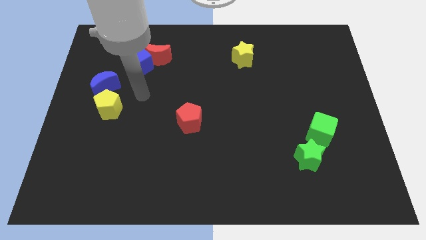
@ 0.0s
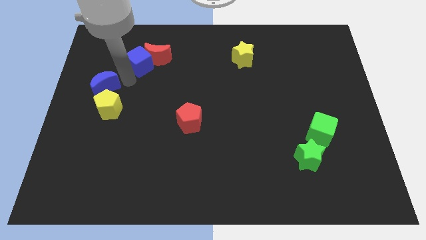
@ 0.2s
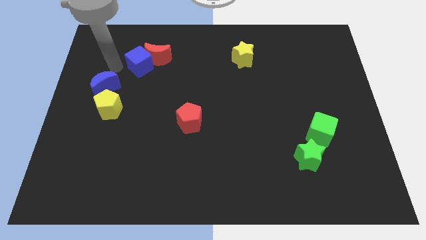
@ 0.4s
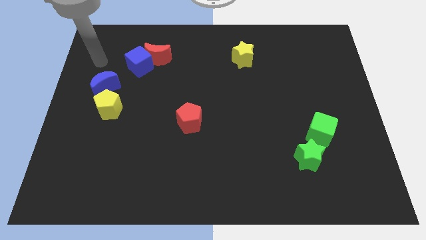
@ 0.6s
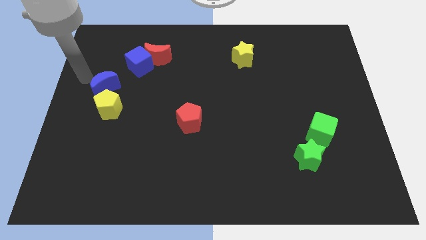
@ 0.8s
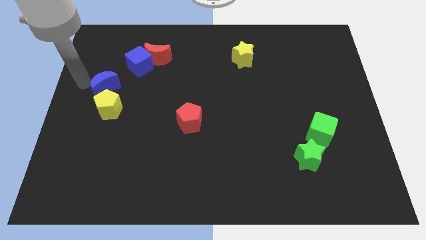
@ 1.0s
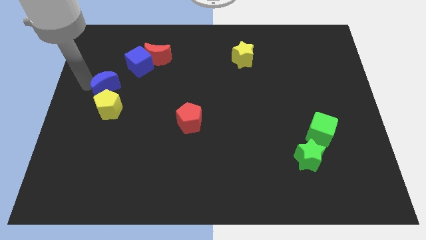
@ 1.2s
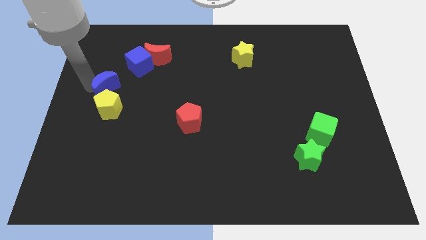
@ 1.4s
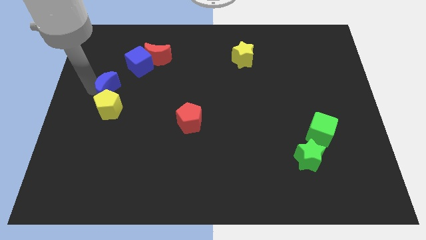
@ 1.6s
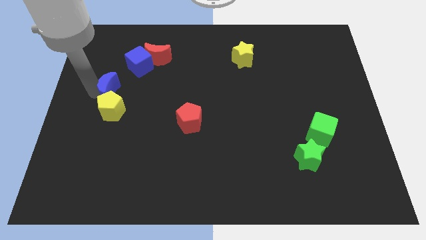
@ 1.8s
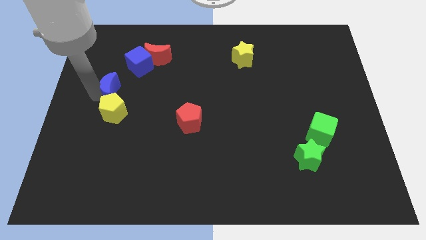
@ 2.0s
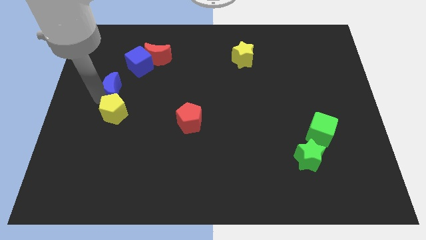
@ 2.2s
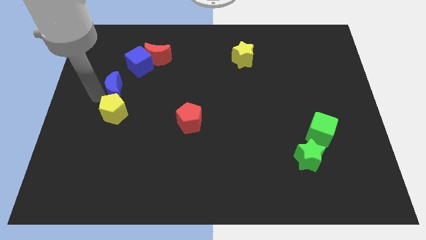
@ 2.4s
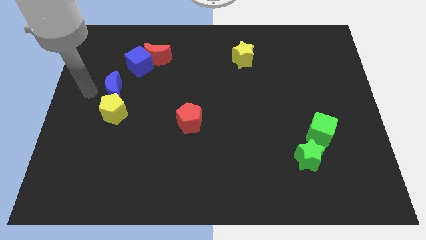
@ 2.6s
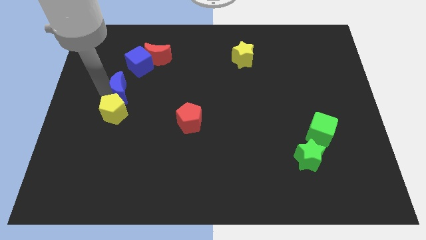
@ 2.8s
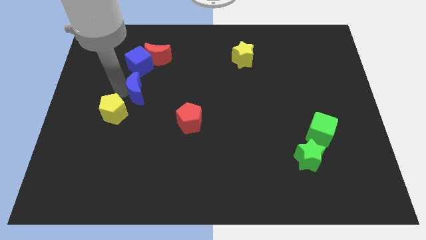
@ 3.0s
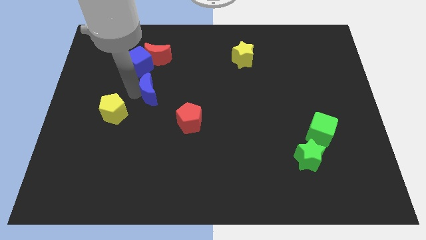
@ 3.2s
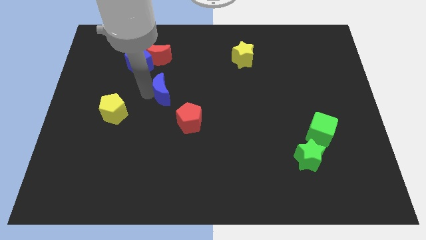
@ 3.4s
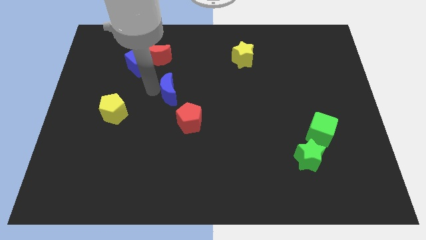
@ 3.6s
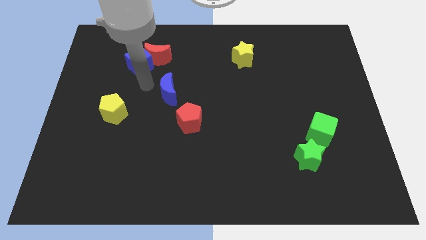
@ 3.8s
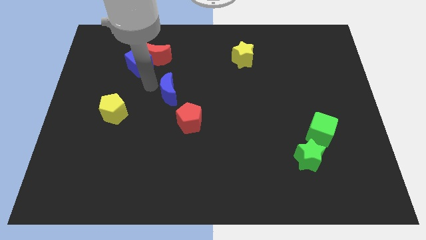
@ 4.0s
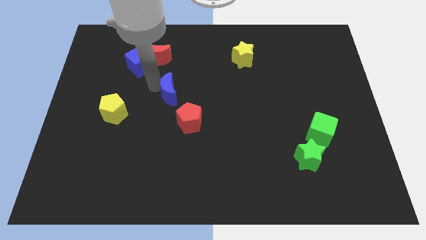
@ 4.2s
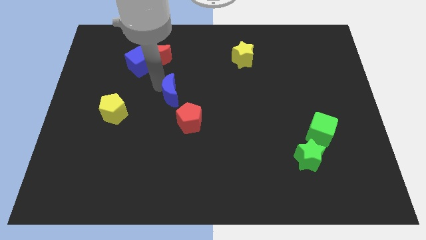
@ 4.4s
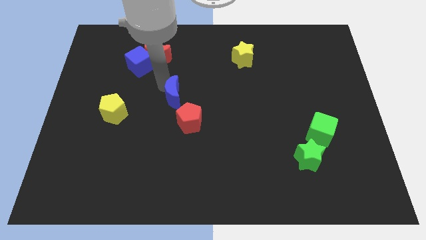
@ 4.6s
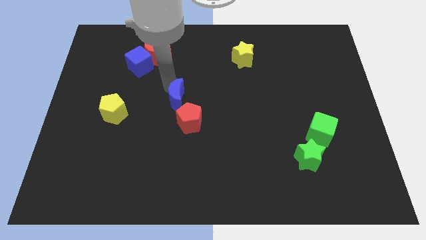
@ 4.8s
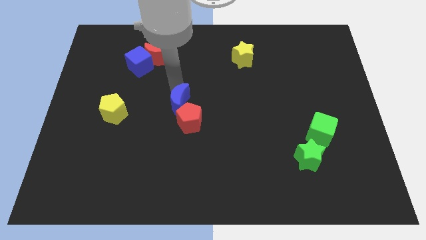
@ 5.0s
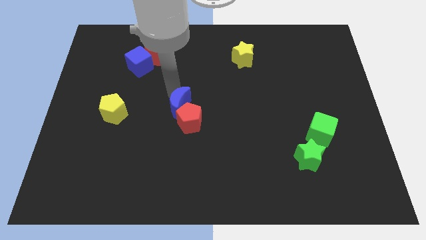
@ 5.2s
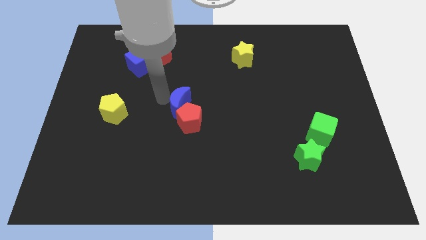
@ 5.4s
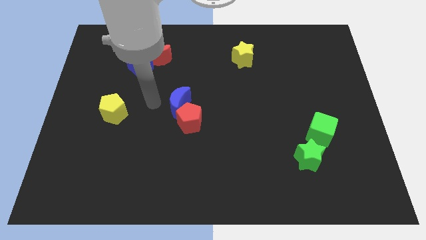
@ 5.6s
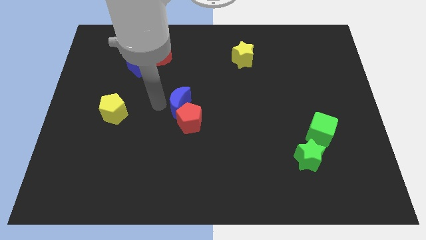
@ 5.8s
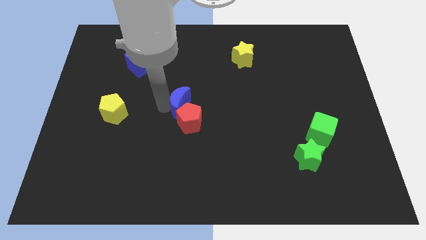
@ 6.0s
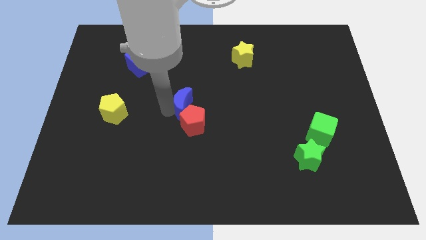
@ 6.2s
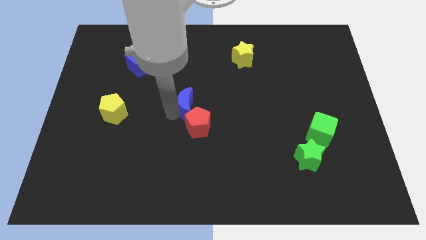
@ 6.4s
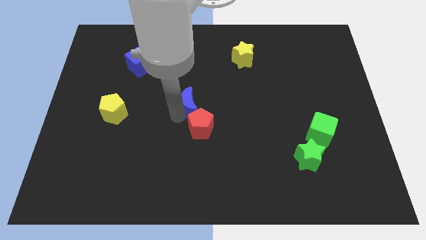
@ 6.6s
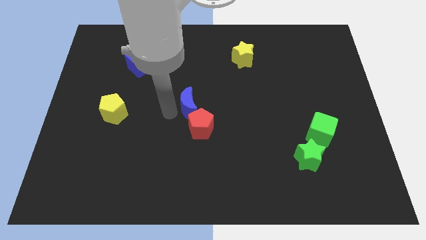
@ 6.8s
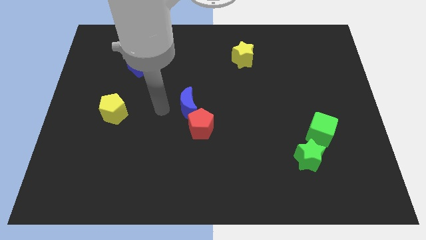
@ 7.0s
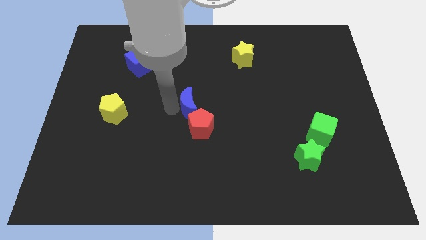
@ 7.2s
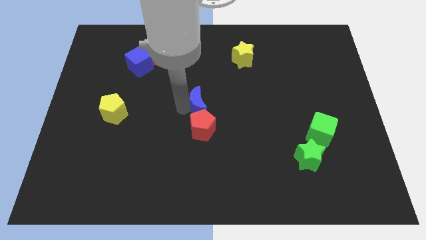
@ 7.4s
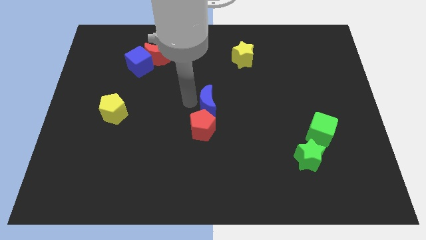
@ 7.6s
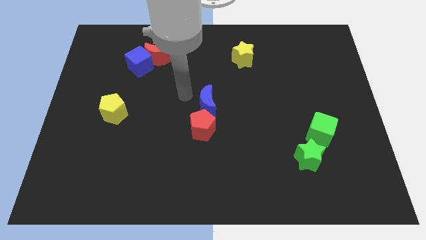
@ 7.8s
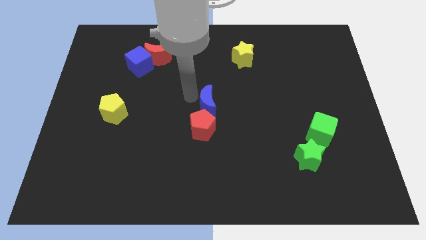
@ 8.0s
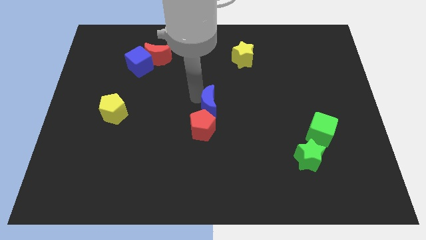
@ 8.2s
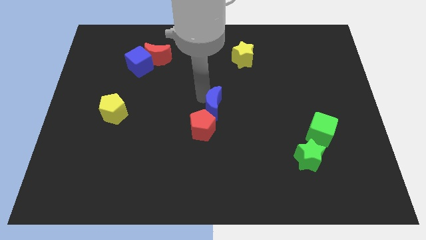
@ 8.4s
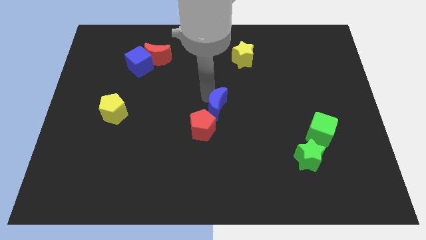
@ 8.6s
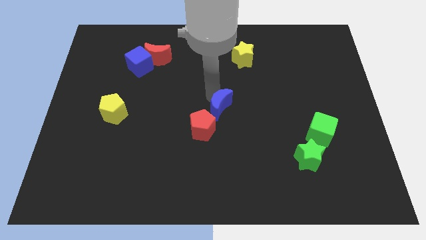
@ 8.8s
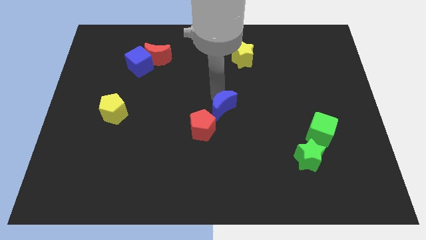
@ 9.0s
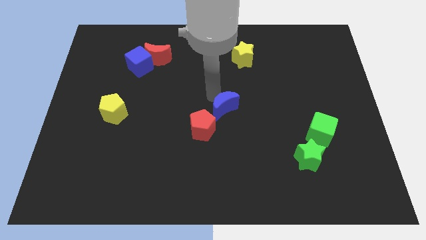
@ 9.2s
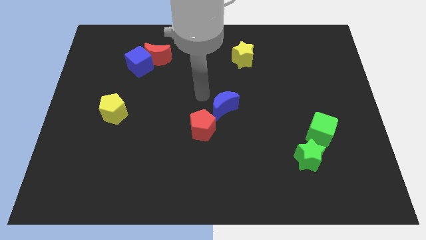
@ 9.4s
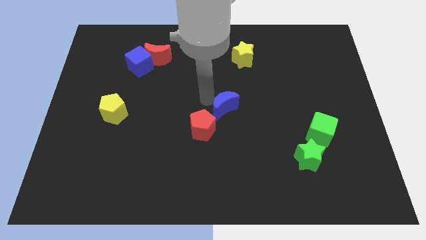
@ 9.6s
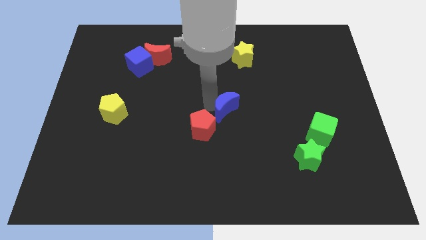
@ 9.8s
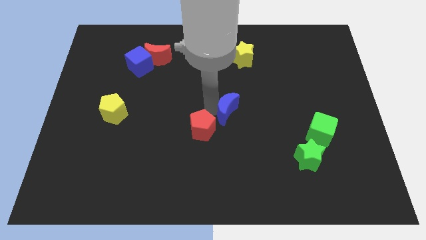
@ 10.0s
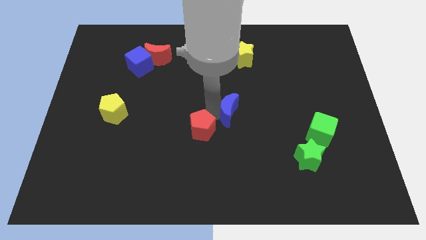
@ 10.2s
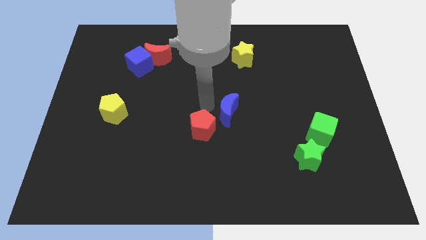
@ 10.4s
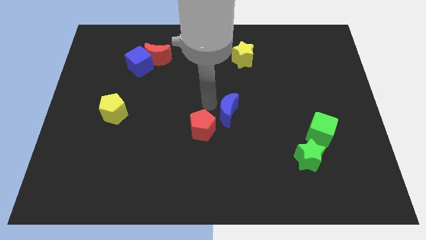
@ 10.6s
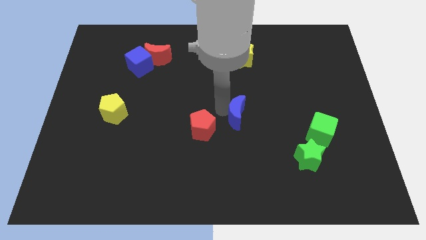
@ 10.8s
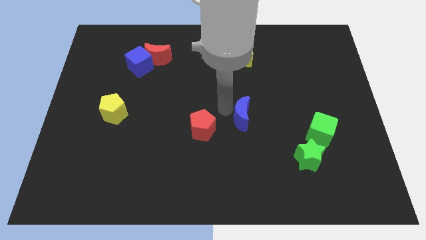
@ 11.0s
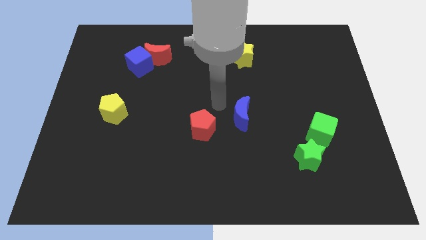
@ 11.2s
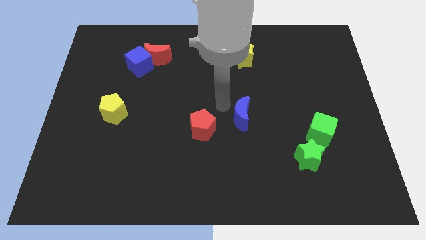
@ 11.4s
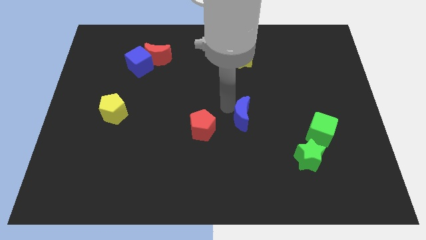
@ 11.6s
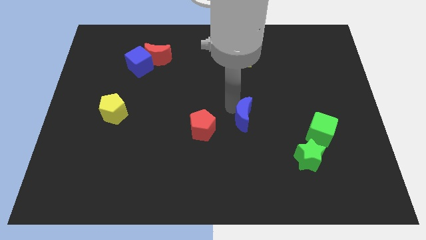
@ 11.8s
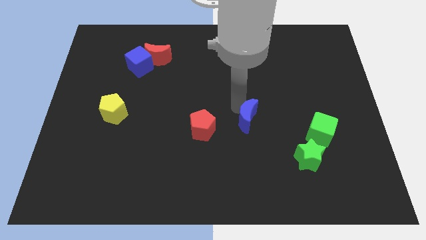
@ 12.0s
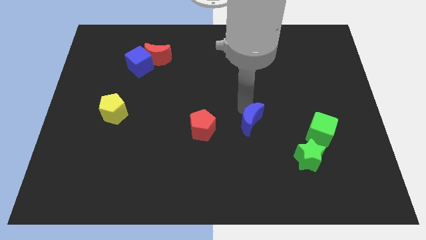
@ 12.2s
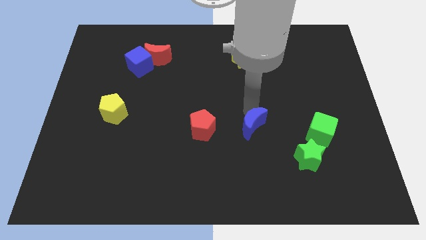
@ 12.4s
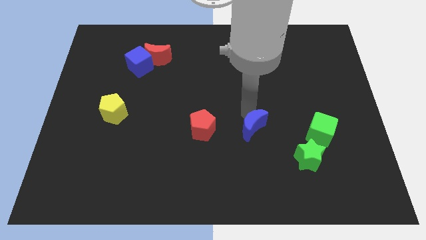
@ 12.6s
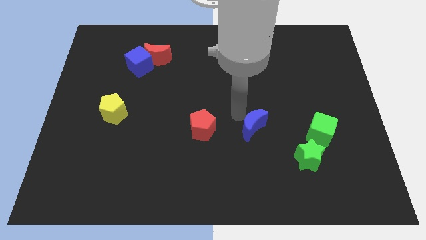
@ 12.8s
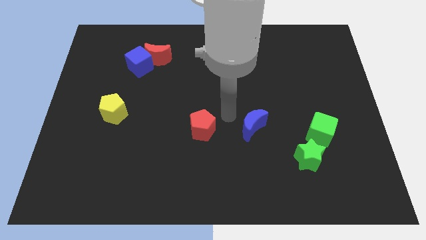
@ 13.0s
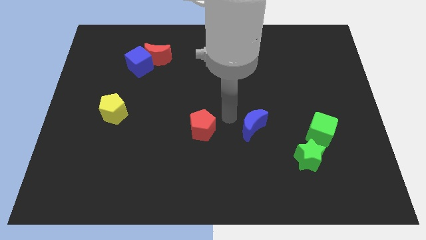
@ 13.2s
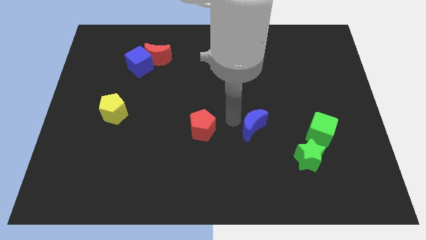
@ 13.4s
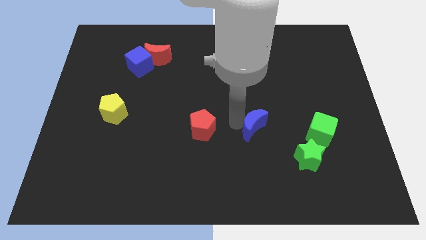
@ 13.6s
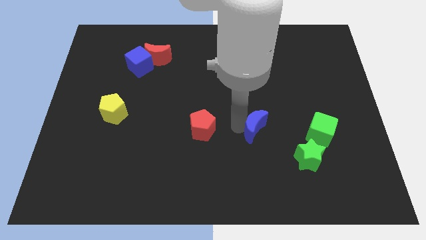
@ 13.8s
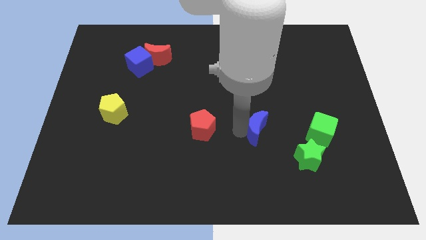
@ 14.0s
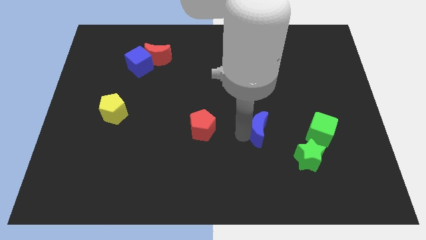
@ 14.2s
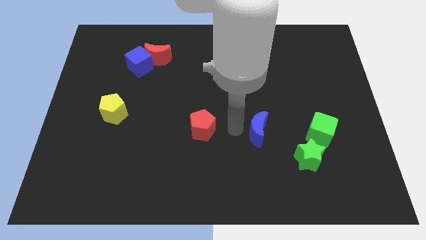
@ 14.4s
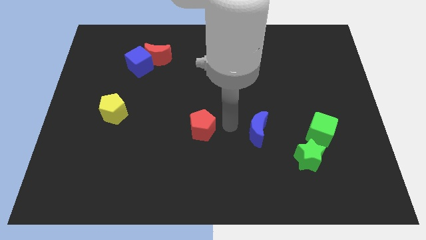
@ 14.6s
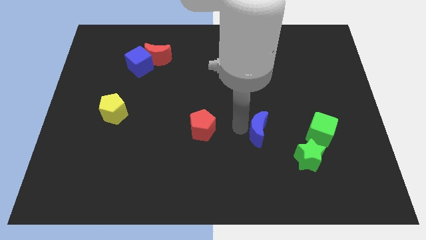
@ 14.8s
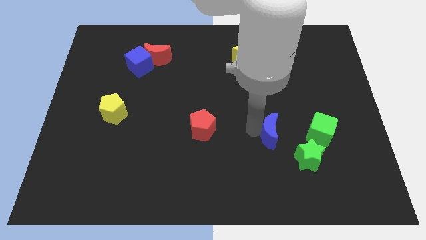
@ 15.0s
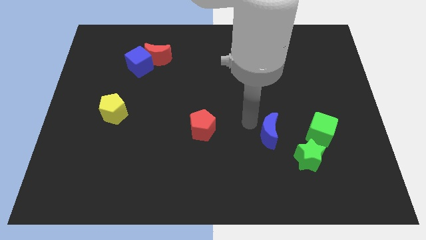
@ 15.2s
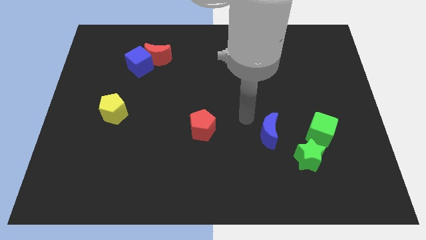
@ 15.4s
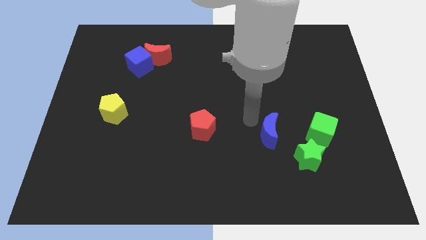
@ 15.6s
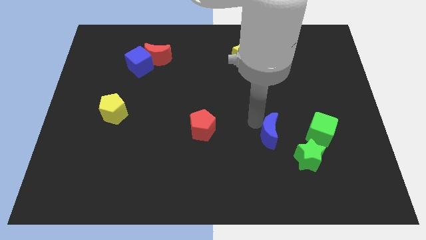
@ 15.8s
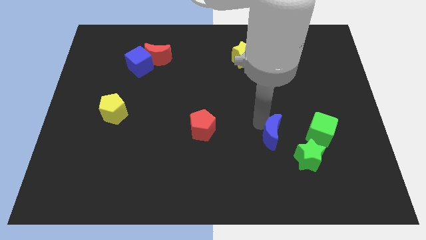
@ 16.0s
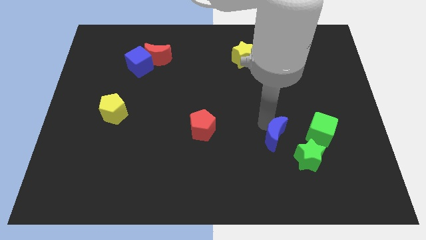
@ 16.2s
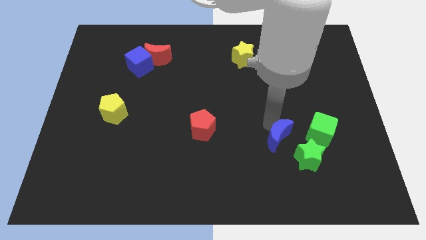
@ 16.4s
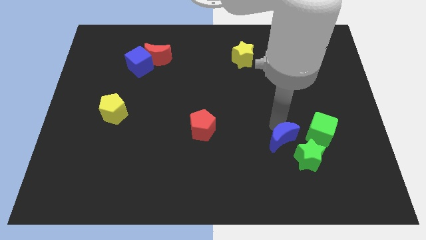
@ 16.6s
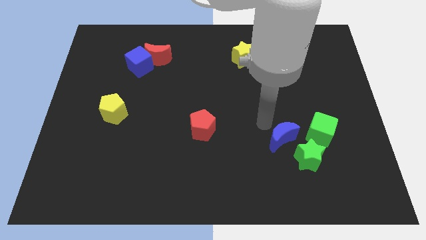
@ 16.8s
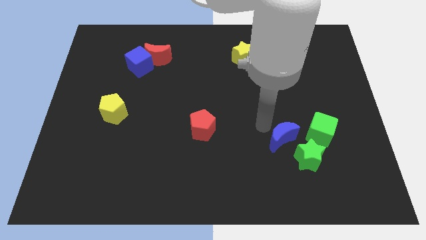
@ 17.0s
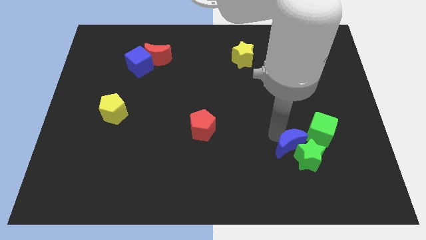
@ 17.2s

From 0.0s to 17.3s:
slide the blue moon close to the green star
